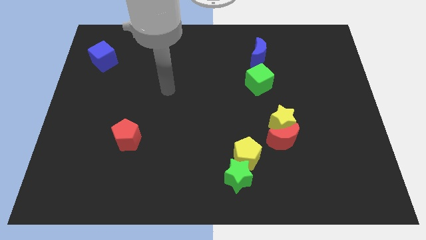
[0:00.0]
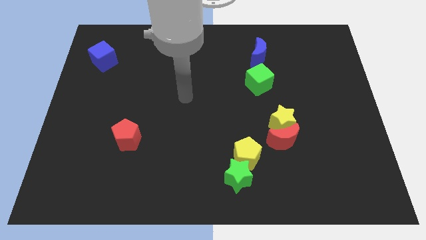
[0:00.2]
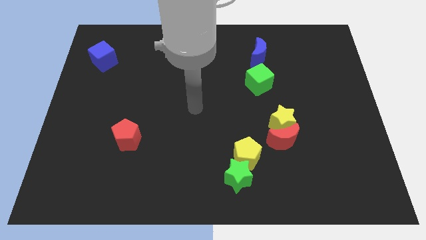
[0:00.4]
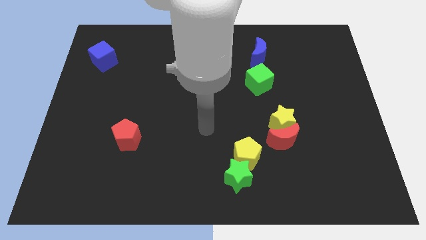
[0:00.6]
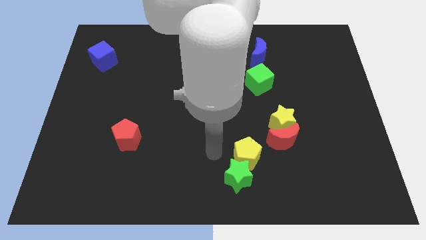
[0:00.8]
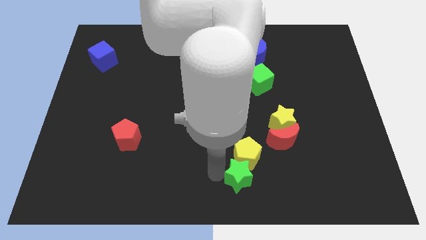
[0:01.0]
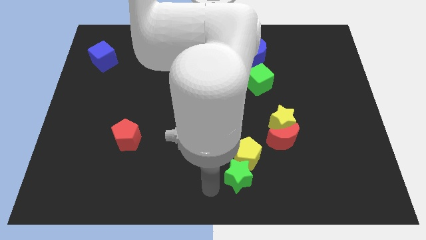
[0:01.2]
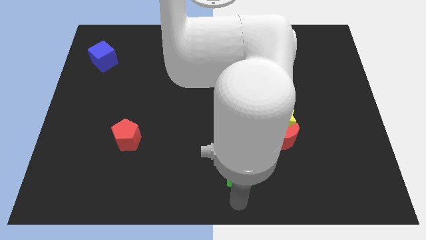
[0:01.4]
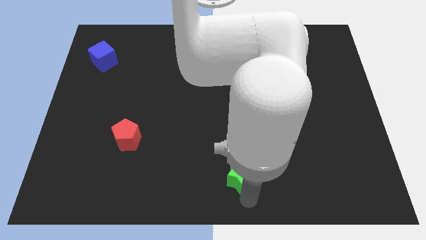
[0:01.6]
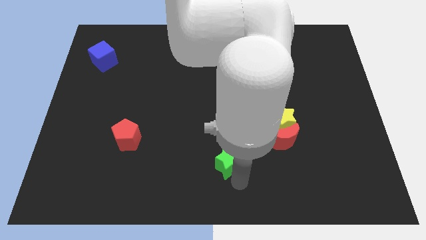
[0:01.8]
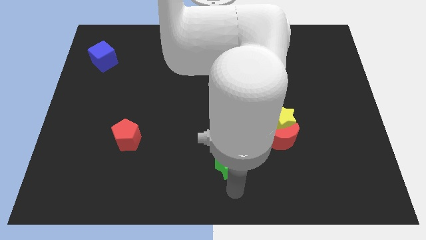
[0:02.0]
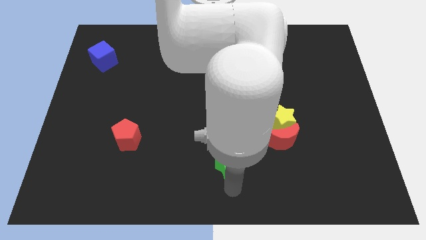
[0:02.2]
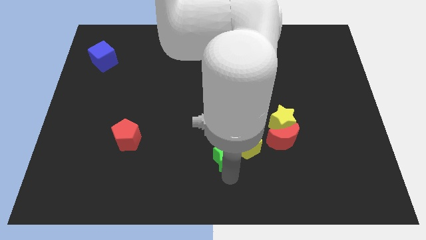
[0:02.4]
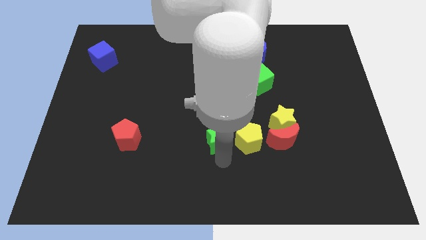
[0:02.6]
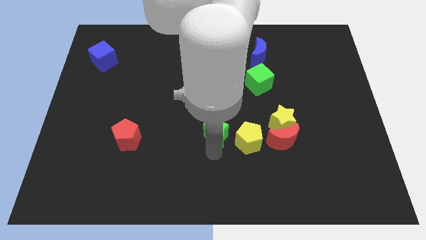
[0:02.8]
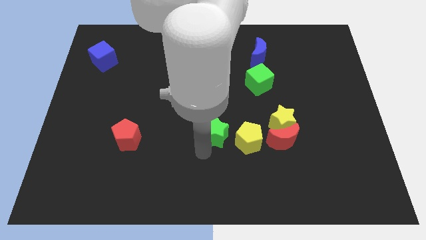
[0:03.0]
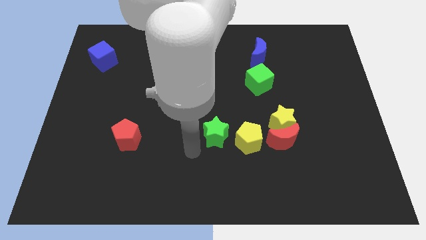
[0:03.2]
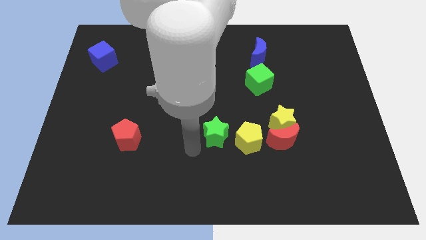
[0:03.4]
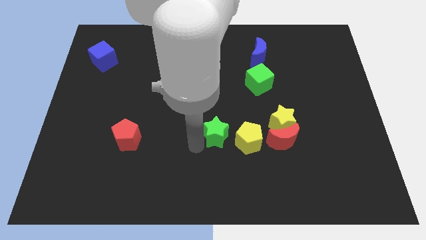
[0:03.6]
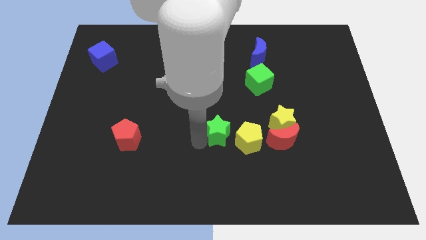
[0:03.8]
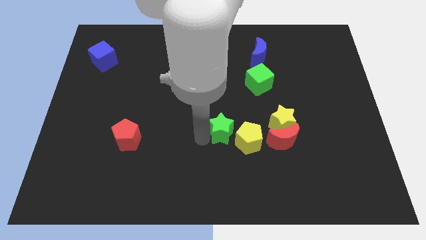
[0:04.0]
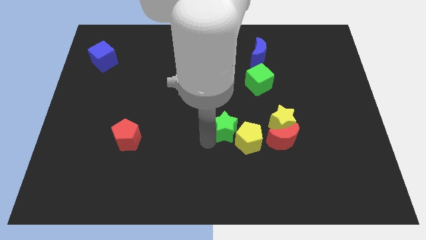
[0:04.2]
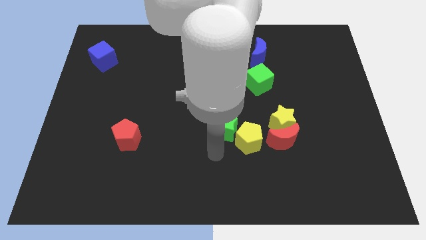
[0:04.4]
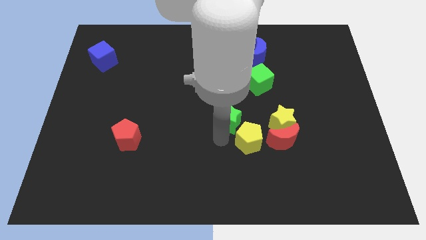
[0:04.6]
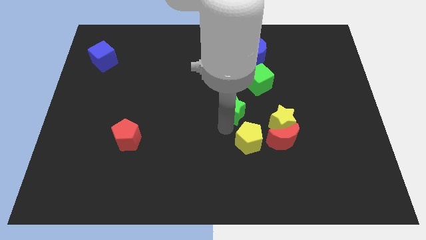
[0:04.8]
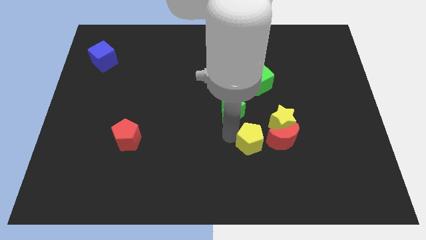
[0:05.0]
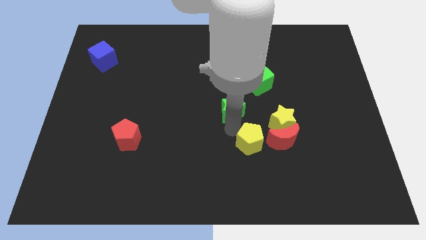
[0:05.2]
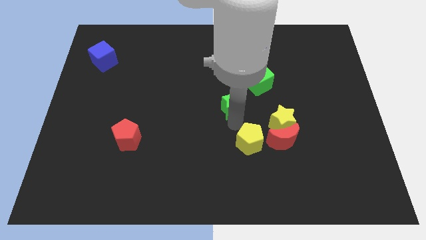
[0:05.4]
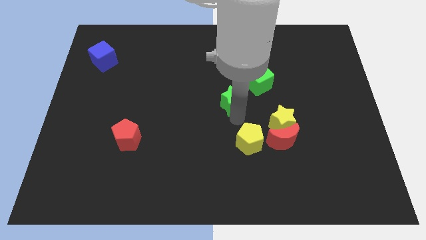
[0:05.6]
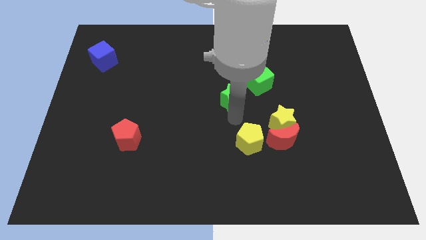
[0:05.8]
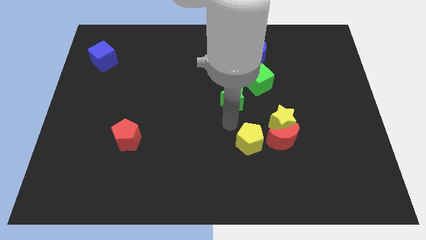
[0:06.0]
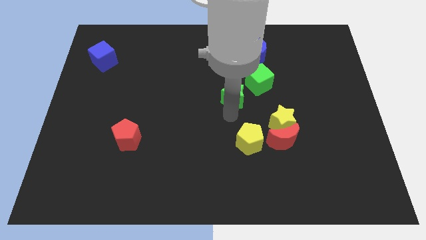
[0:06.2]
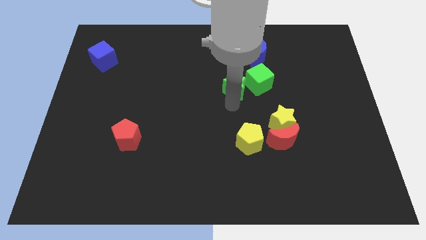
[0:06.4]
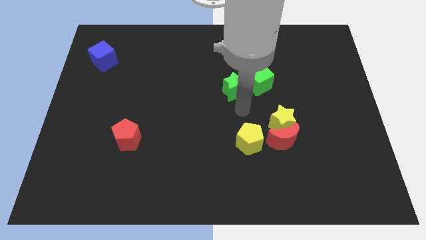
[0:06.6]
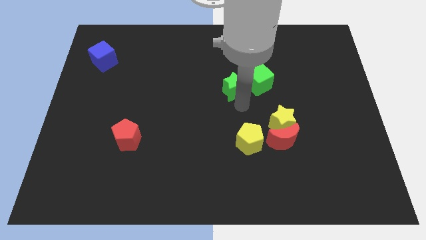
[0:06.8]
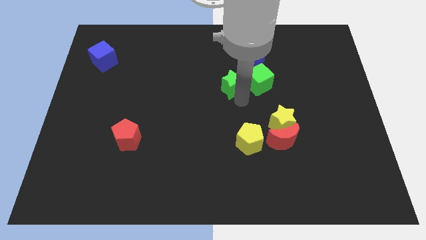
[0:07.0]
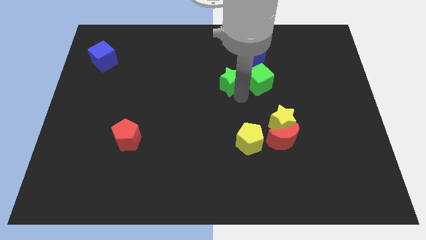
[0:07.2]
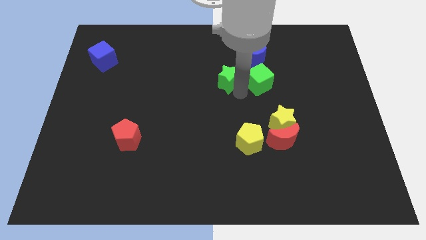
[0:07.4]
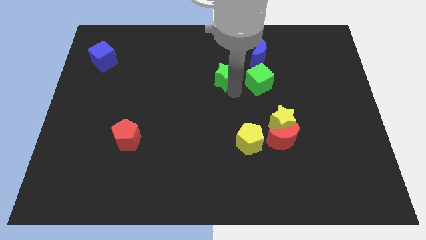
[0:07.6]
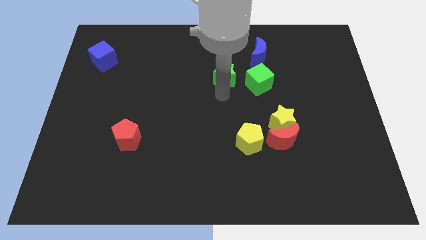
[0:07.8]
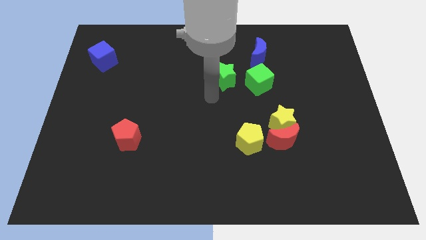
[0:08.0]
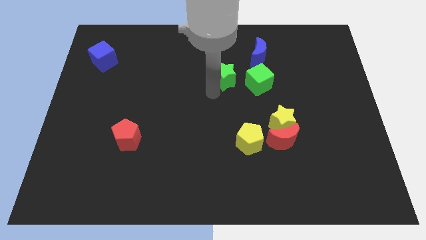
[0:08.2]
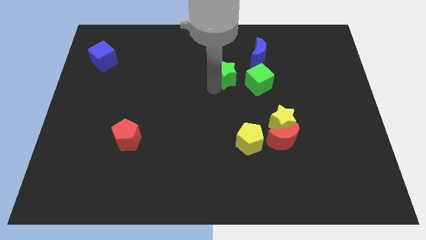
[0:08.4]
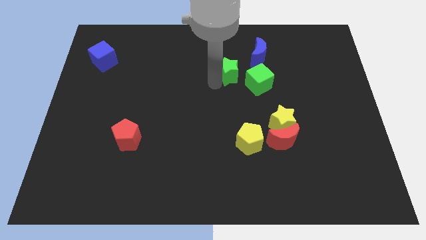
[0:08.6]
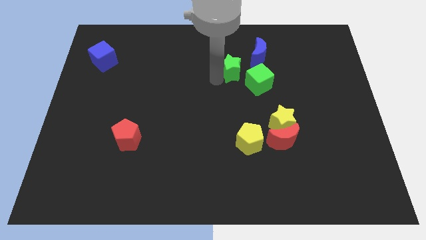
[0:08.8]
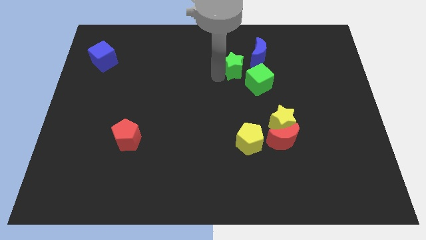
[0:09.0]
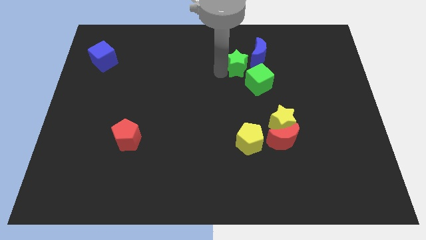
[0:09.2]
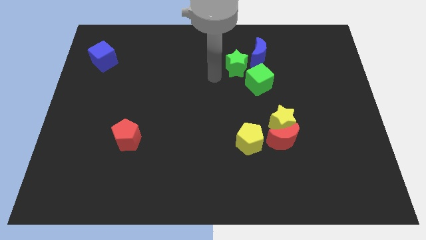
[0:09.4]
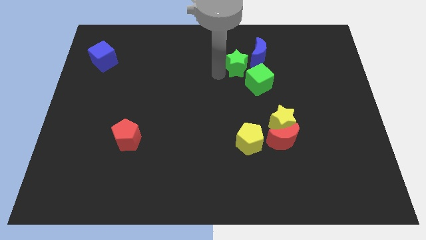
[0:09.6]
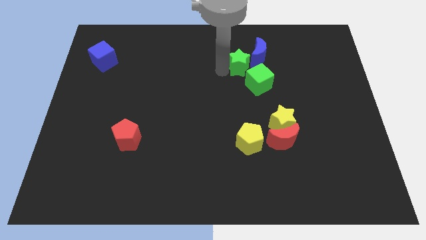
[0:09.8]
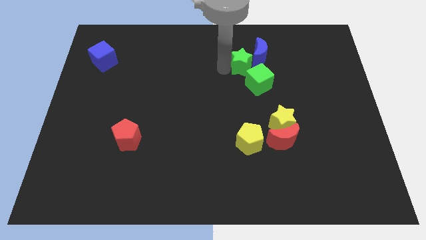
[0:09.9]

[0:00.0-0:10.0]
put the green star to the blue moon

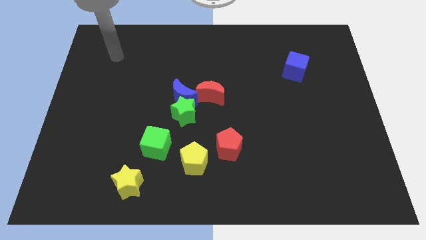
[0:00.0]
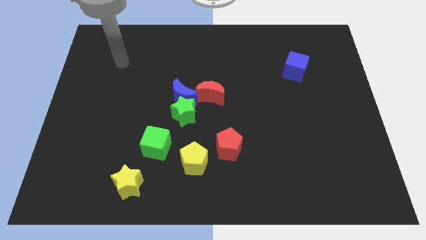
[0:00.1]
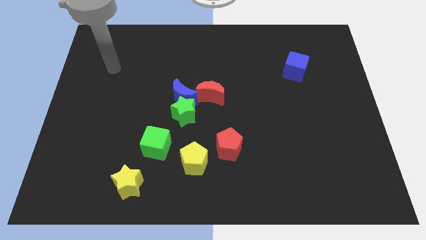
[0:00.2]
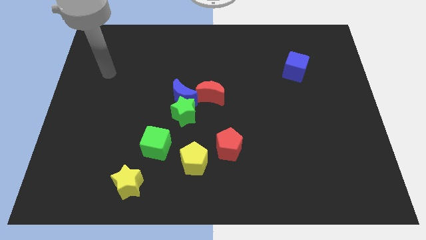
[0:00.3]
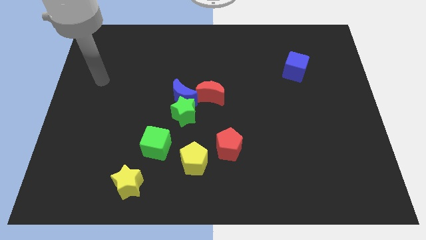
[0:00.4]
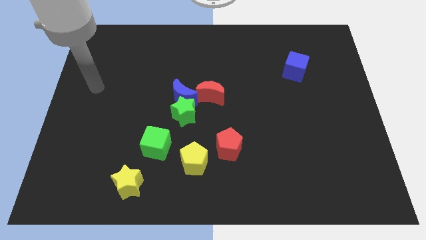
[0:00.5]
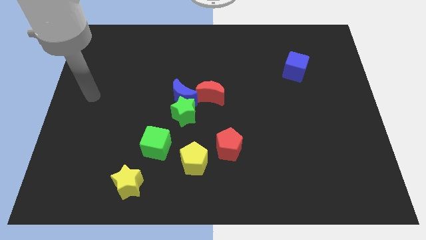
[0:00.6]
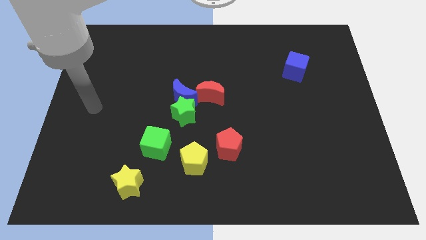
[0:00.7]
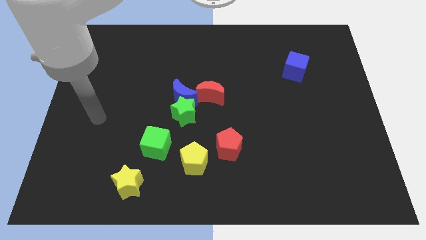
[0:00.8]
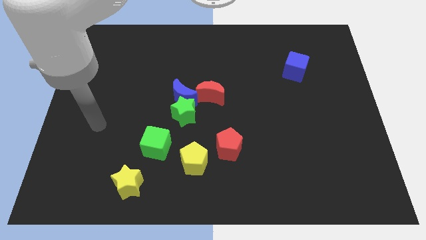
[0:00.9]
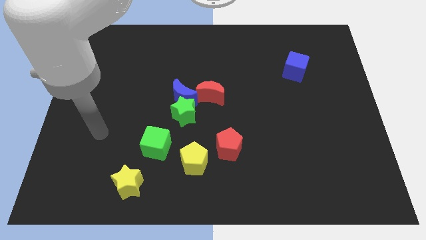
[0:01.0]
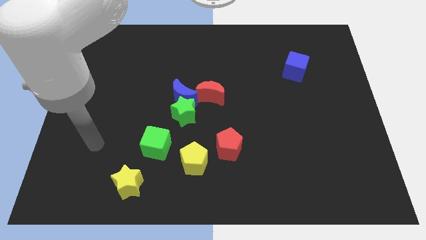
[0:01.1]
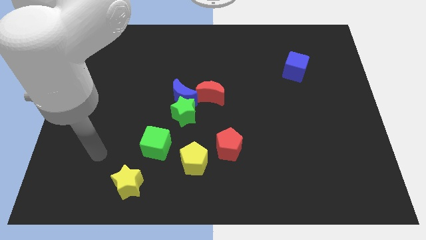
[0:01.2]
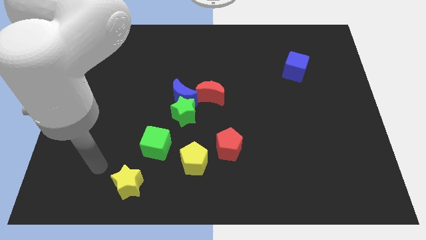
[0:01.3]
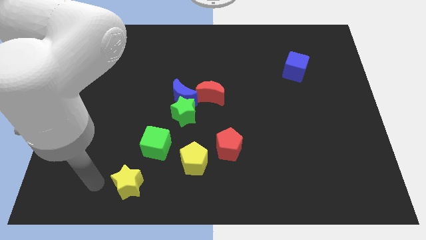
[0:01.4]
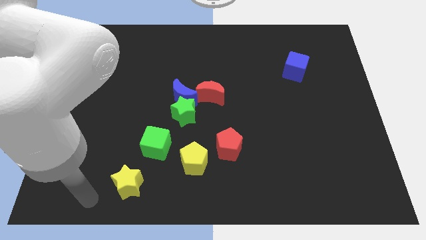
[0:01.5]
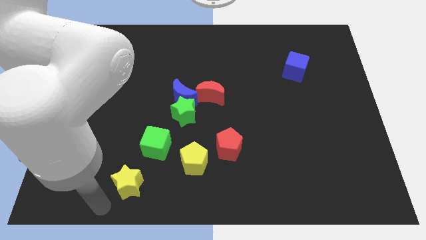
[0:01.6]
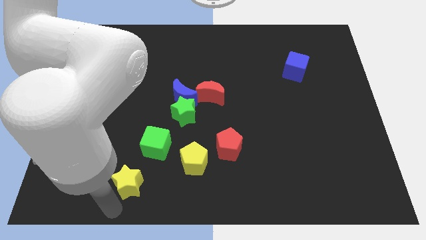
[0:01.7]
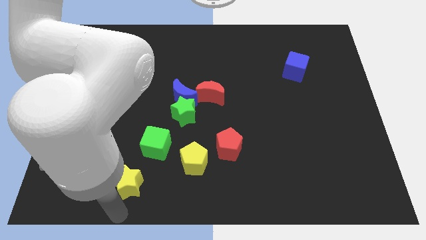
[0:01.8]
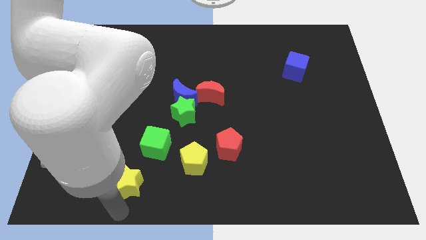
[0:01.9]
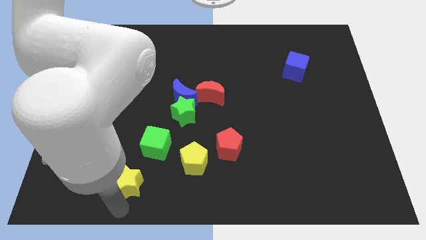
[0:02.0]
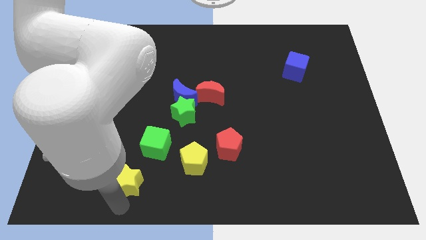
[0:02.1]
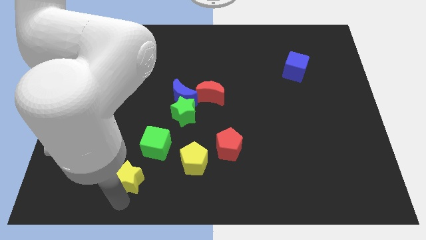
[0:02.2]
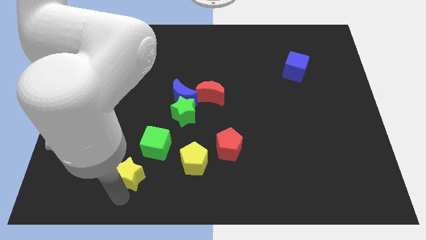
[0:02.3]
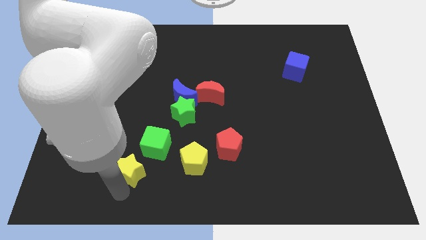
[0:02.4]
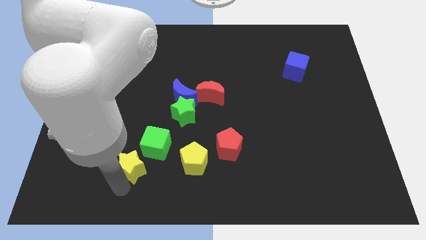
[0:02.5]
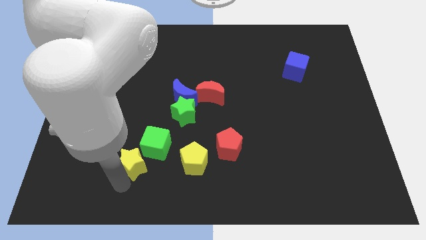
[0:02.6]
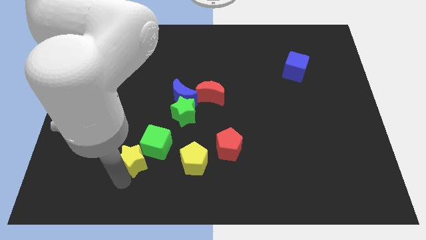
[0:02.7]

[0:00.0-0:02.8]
push the yellow star next to the green cube
